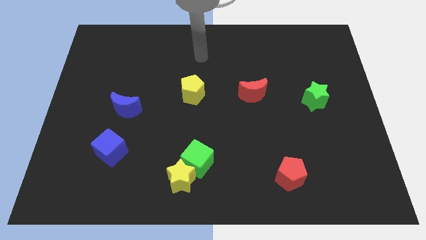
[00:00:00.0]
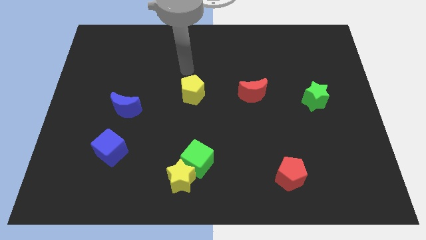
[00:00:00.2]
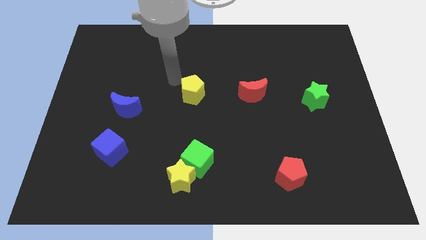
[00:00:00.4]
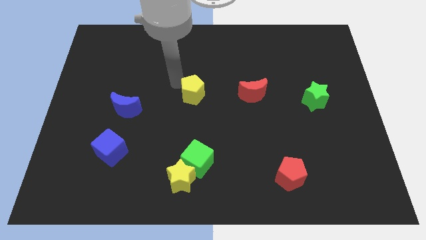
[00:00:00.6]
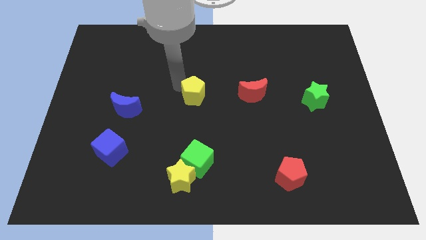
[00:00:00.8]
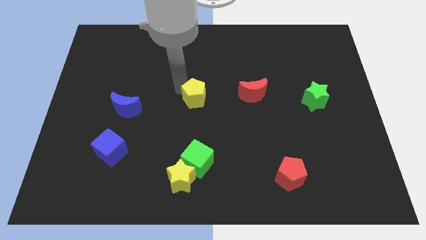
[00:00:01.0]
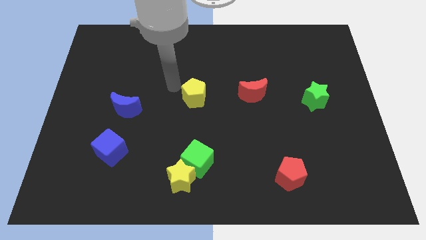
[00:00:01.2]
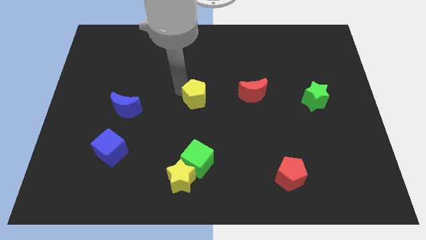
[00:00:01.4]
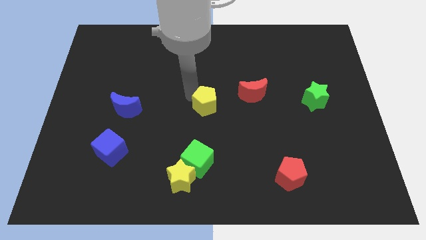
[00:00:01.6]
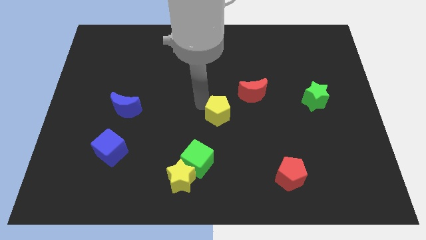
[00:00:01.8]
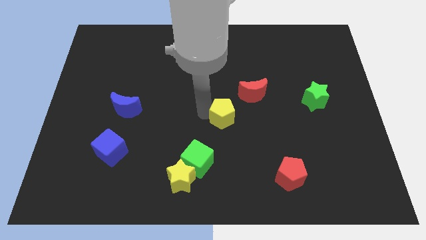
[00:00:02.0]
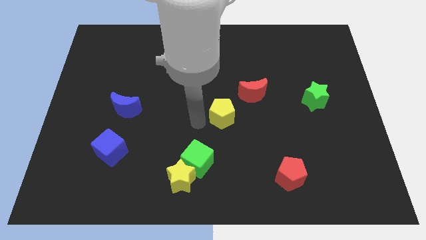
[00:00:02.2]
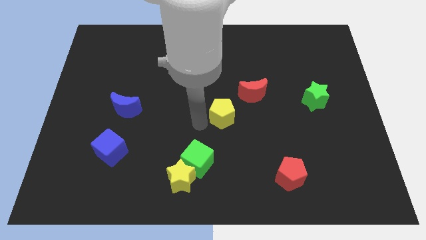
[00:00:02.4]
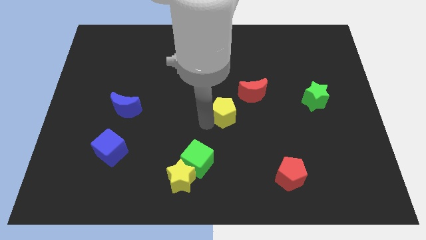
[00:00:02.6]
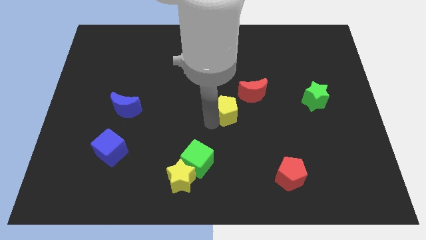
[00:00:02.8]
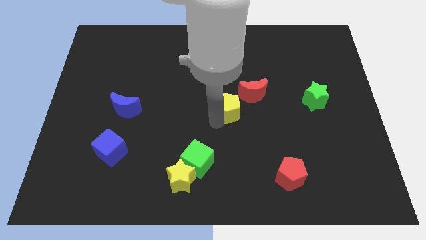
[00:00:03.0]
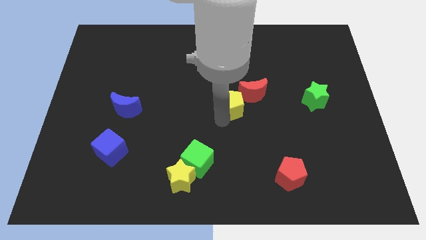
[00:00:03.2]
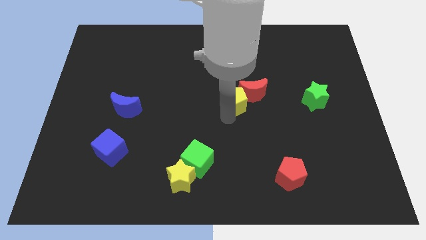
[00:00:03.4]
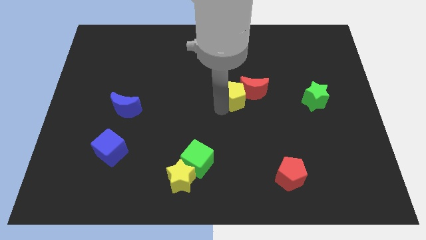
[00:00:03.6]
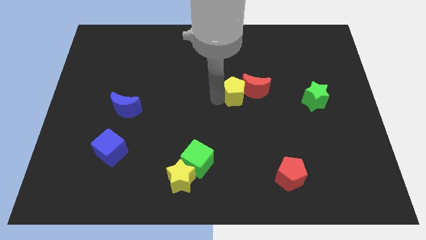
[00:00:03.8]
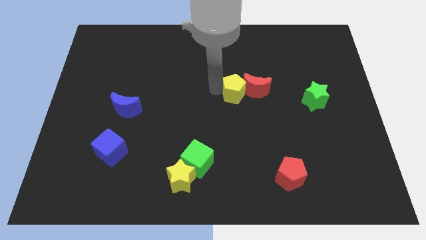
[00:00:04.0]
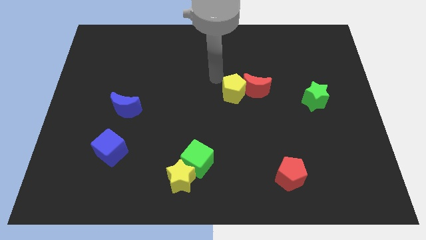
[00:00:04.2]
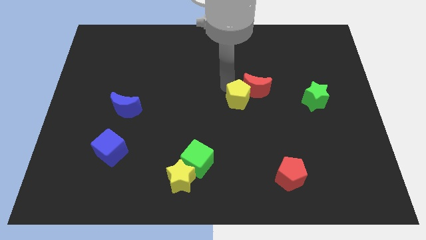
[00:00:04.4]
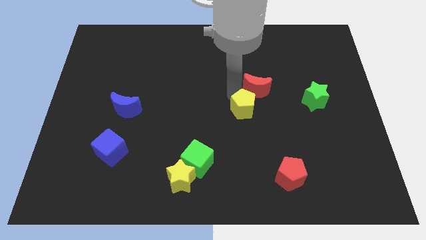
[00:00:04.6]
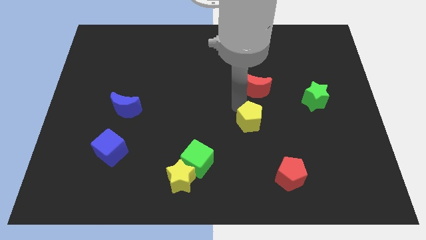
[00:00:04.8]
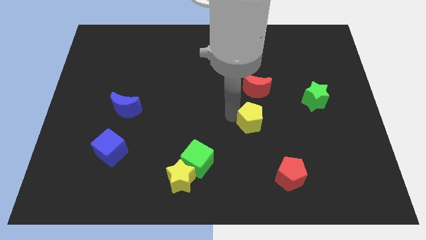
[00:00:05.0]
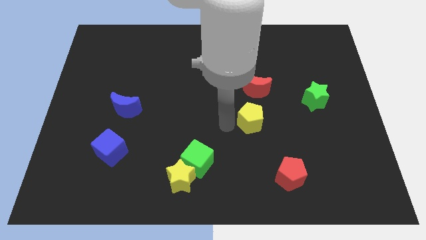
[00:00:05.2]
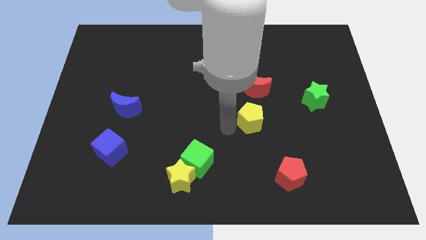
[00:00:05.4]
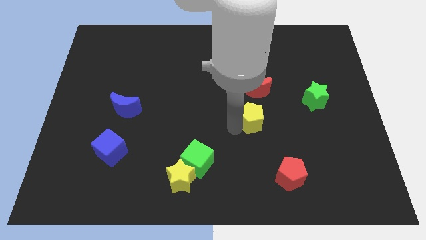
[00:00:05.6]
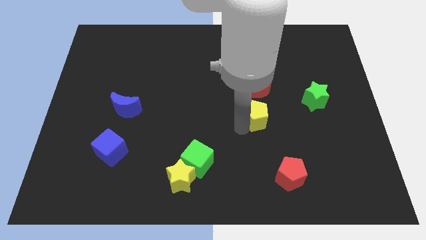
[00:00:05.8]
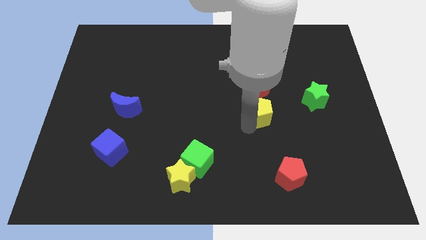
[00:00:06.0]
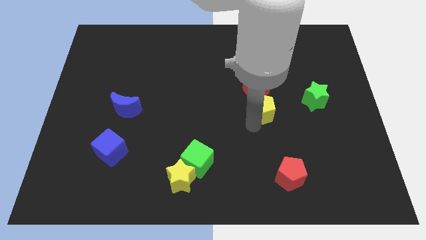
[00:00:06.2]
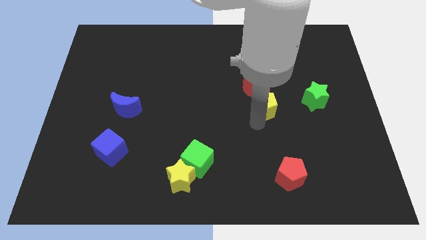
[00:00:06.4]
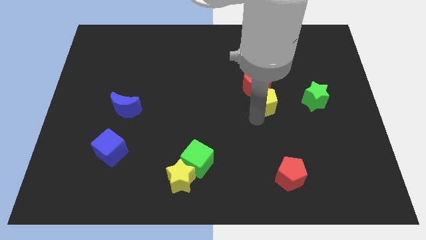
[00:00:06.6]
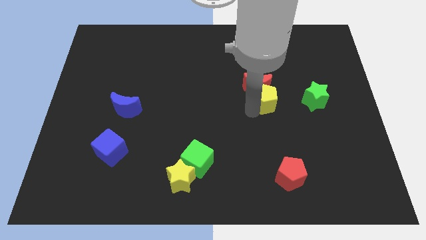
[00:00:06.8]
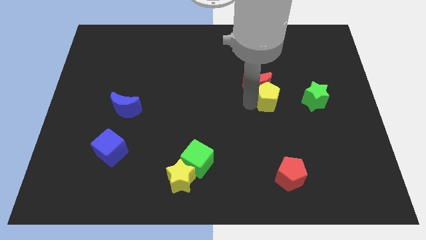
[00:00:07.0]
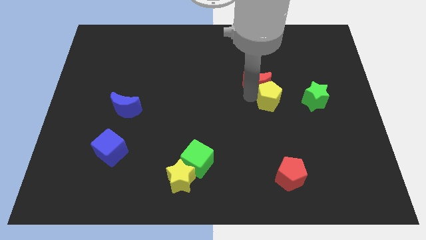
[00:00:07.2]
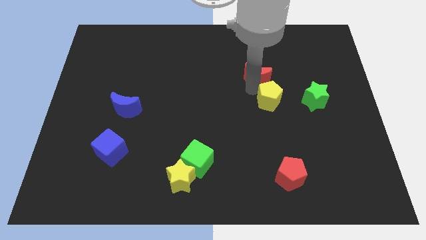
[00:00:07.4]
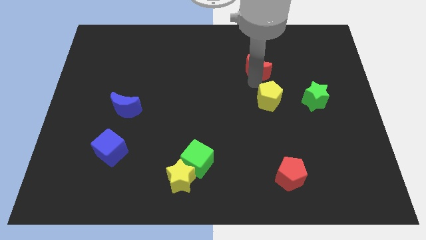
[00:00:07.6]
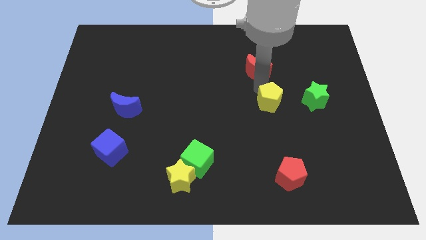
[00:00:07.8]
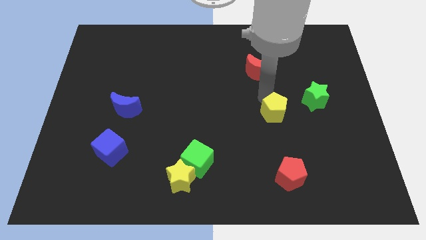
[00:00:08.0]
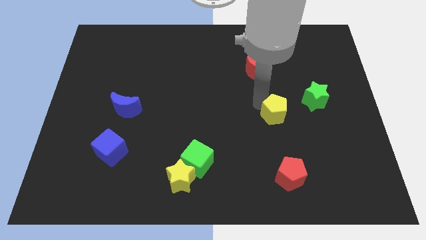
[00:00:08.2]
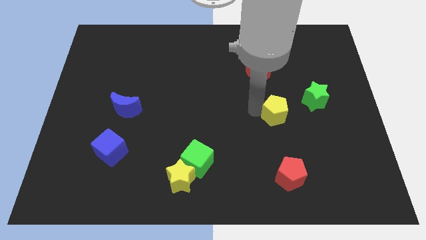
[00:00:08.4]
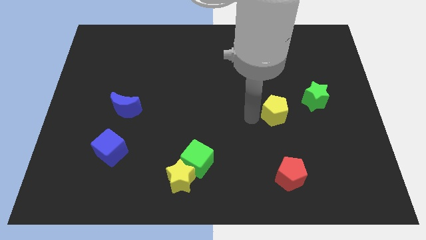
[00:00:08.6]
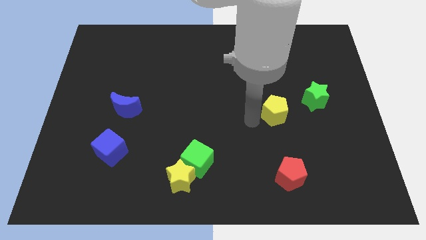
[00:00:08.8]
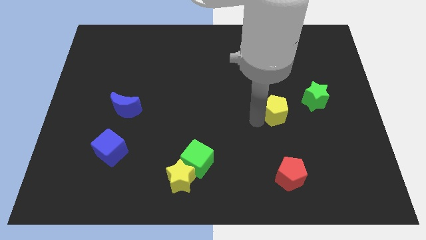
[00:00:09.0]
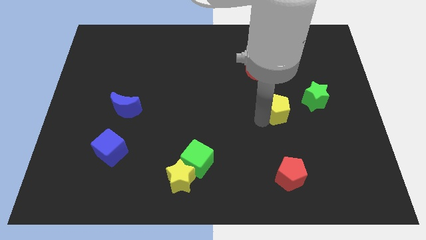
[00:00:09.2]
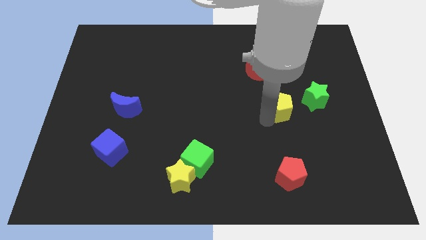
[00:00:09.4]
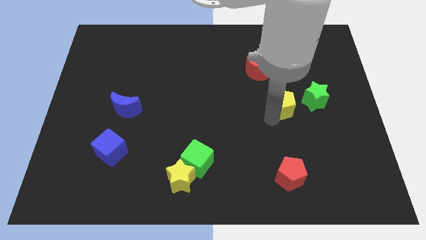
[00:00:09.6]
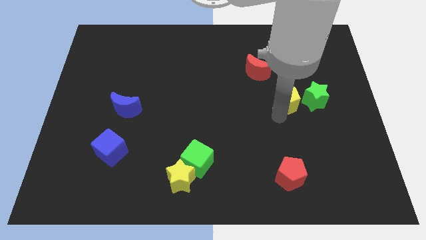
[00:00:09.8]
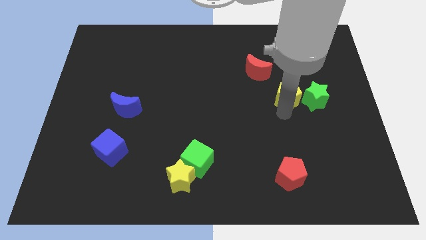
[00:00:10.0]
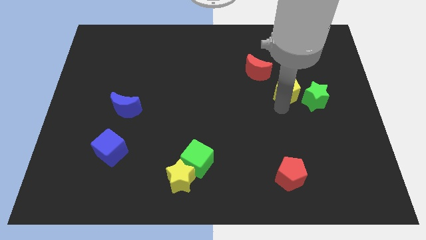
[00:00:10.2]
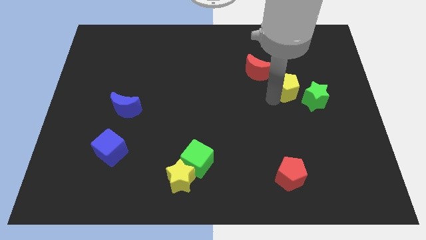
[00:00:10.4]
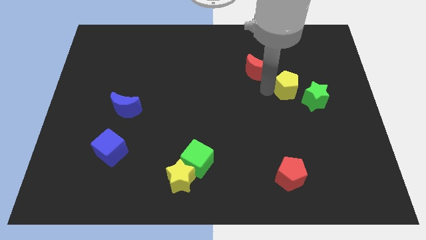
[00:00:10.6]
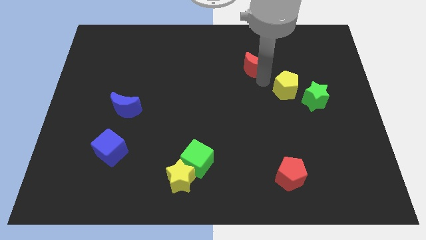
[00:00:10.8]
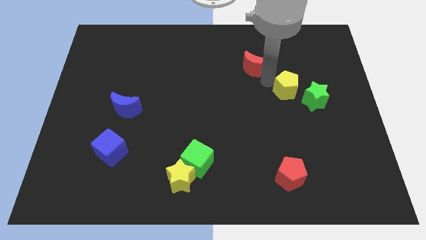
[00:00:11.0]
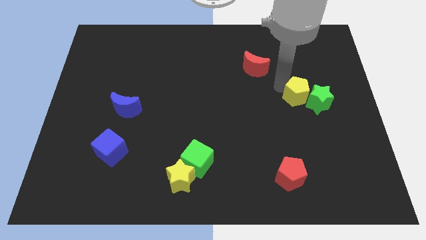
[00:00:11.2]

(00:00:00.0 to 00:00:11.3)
slide the yellow pentagon close to the green star

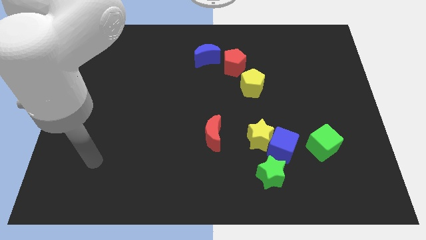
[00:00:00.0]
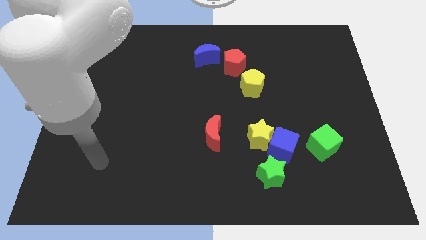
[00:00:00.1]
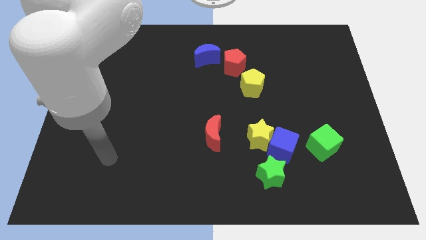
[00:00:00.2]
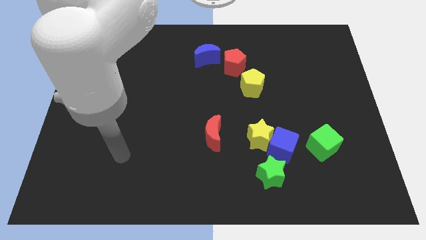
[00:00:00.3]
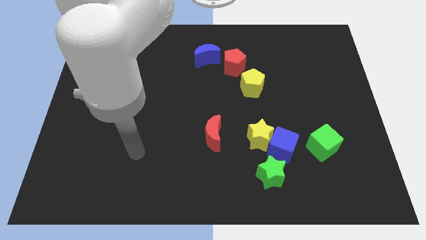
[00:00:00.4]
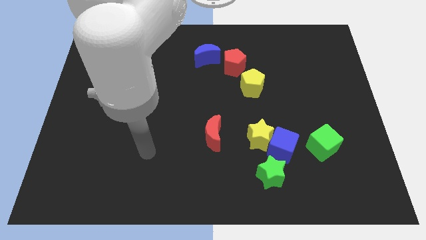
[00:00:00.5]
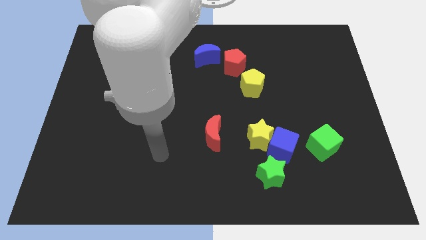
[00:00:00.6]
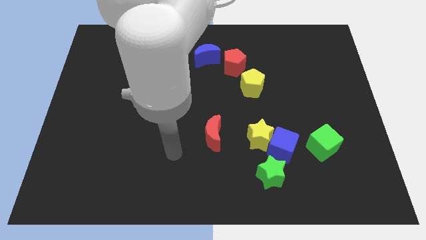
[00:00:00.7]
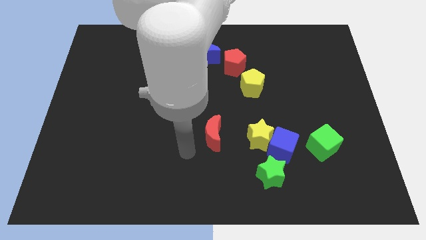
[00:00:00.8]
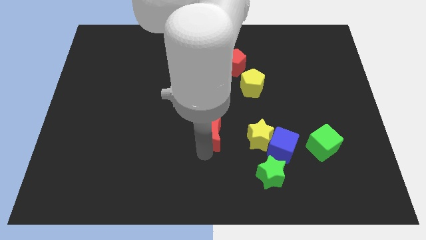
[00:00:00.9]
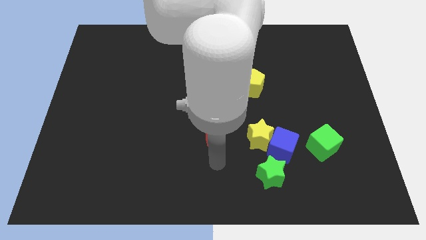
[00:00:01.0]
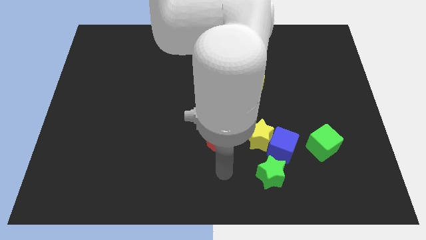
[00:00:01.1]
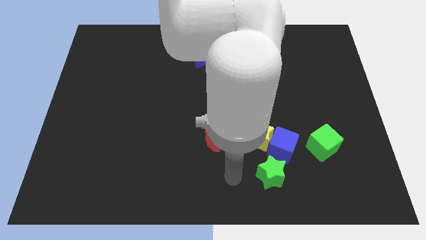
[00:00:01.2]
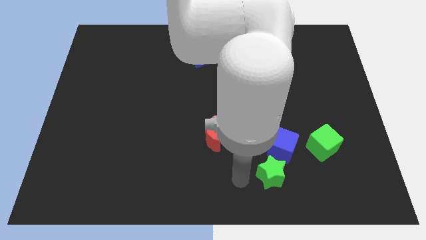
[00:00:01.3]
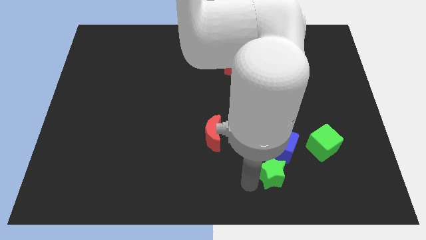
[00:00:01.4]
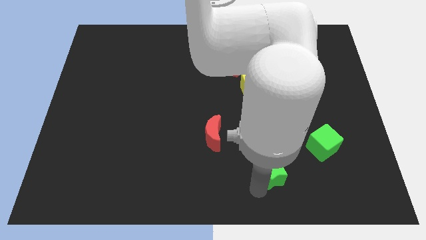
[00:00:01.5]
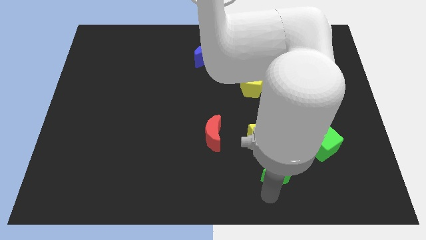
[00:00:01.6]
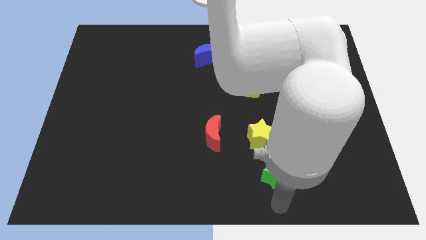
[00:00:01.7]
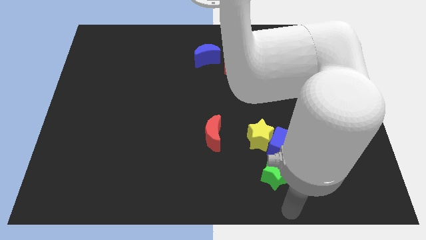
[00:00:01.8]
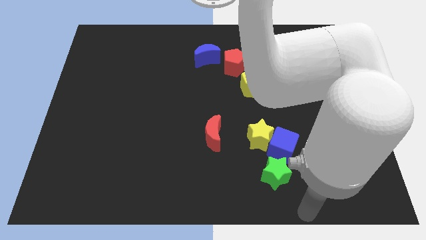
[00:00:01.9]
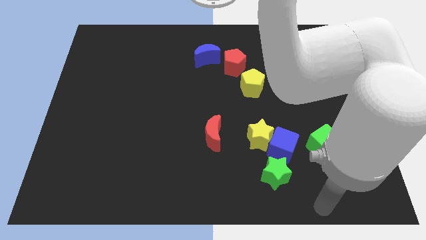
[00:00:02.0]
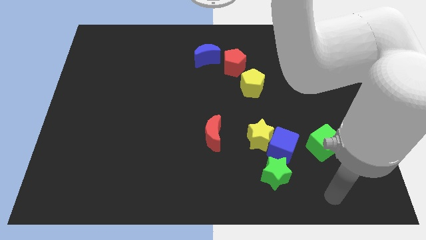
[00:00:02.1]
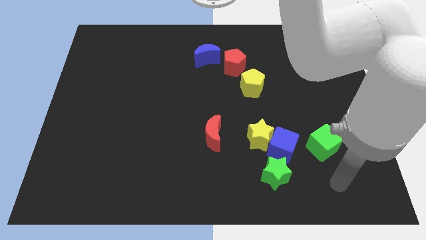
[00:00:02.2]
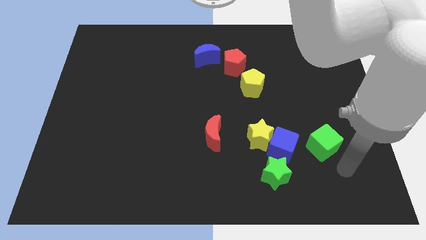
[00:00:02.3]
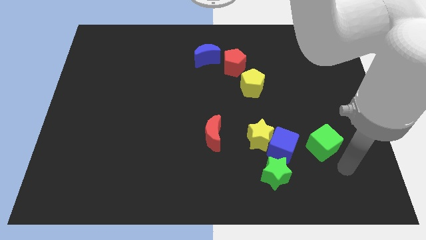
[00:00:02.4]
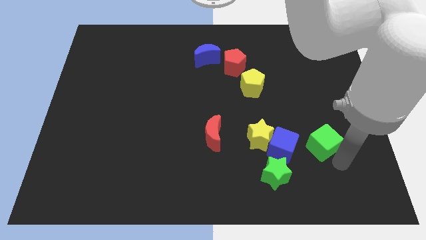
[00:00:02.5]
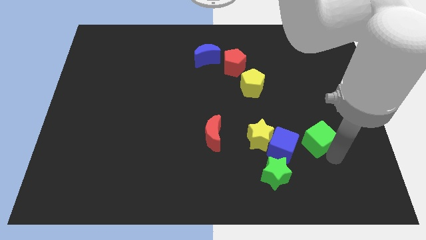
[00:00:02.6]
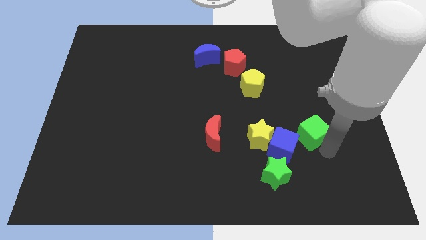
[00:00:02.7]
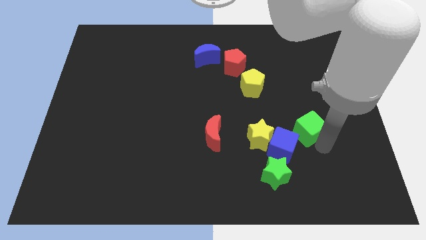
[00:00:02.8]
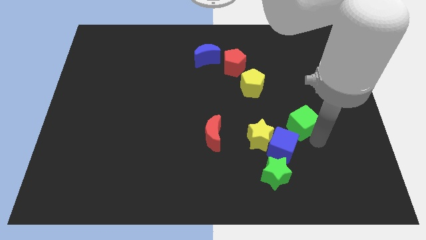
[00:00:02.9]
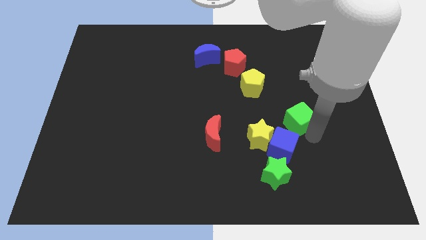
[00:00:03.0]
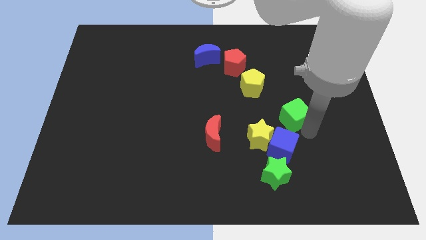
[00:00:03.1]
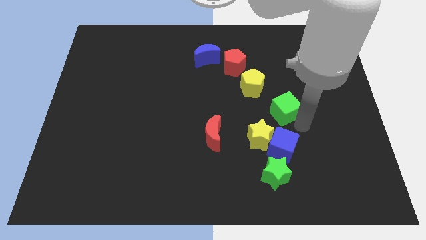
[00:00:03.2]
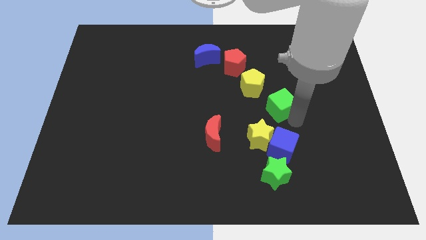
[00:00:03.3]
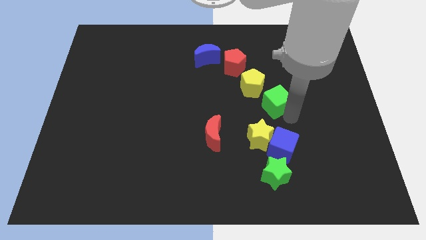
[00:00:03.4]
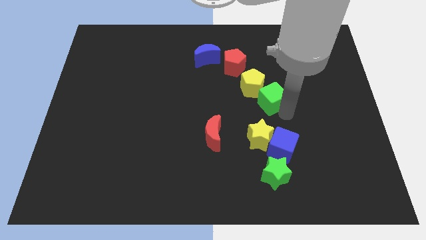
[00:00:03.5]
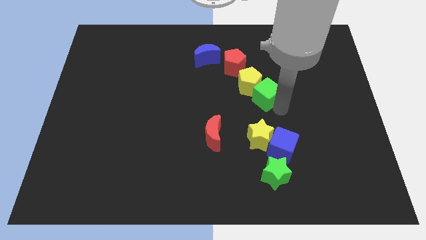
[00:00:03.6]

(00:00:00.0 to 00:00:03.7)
push the green cube next to the yellow pentagon
